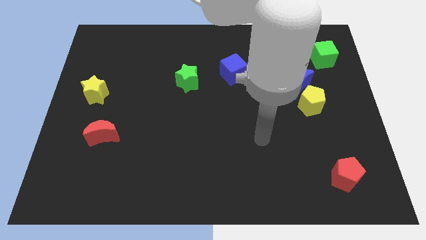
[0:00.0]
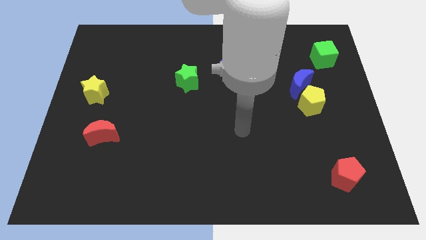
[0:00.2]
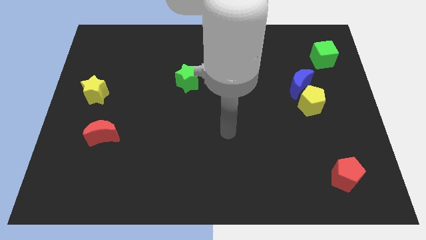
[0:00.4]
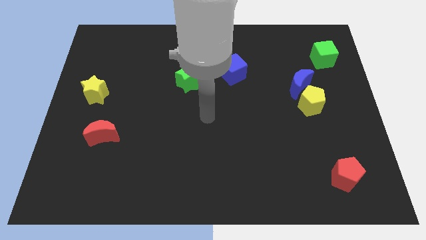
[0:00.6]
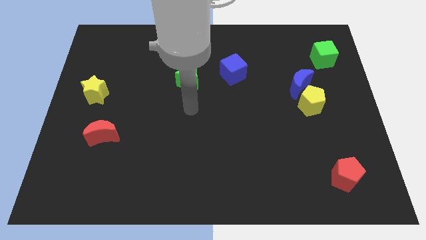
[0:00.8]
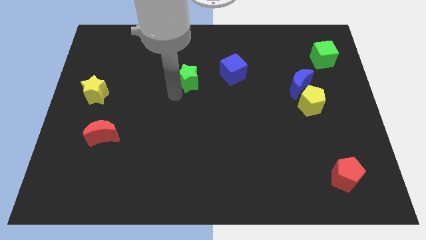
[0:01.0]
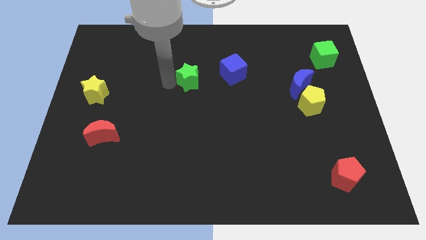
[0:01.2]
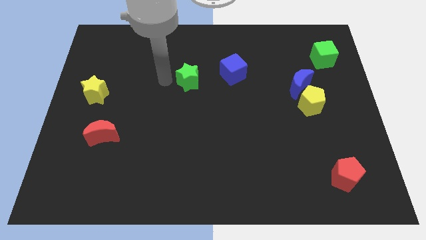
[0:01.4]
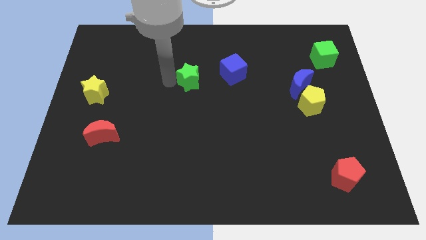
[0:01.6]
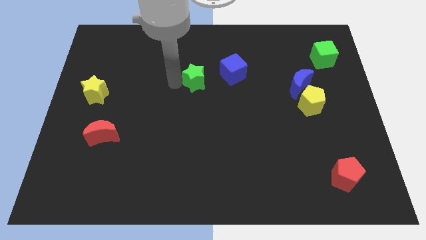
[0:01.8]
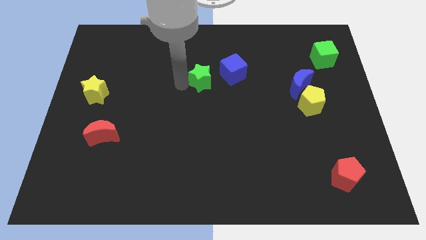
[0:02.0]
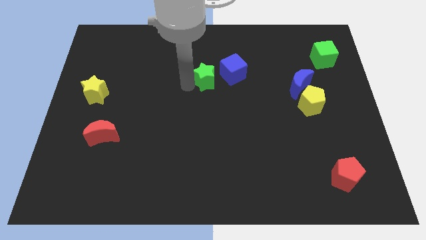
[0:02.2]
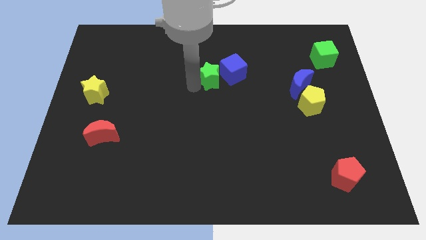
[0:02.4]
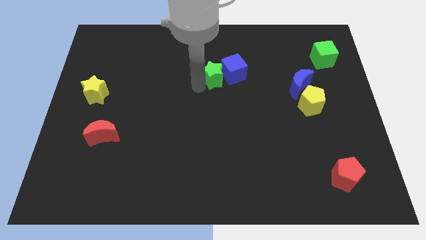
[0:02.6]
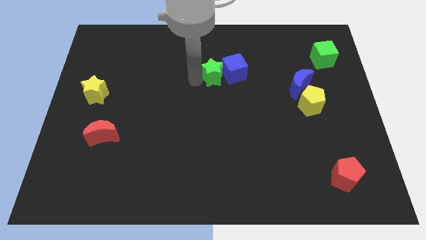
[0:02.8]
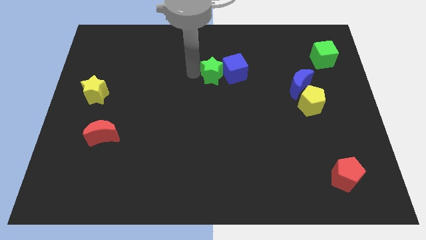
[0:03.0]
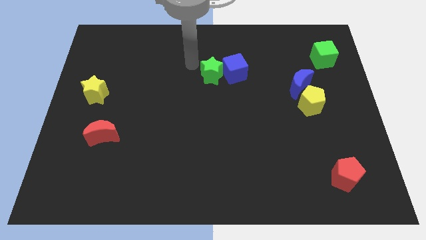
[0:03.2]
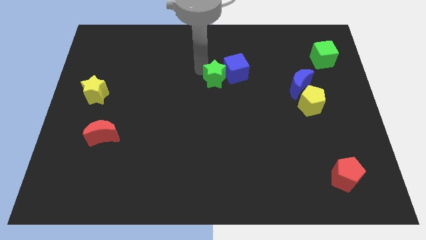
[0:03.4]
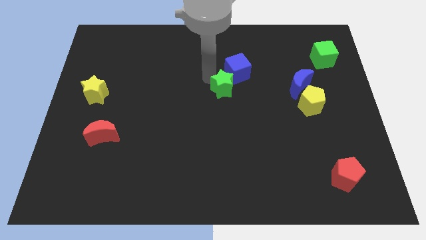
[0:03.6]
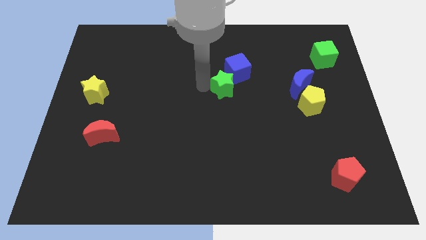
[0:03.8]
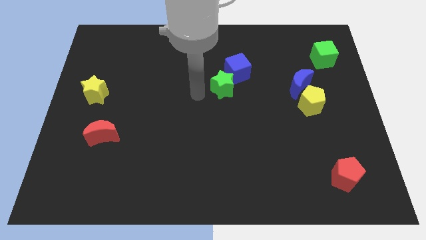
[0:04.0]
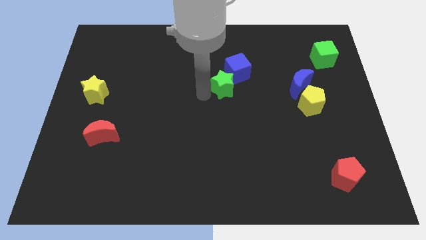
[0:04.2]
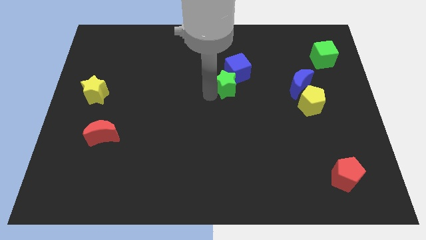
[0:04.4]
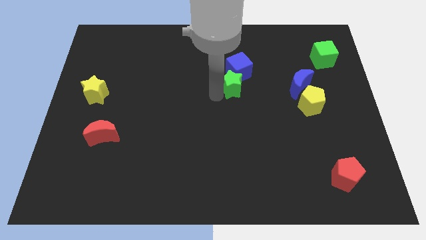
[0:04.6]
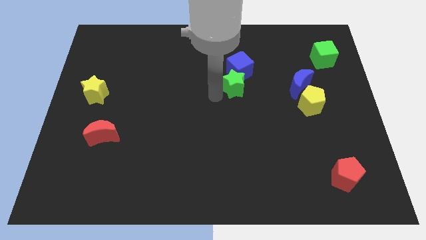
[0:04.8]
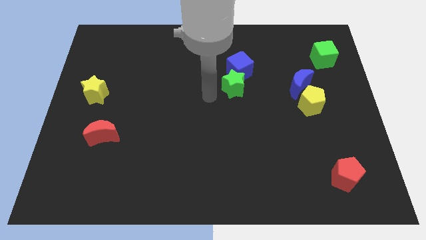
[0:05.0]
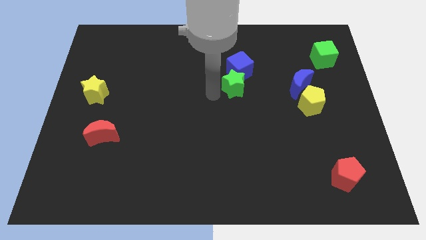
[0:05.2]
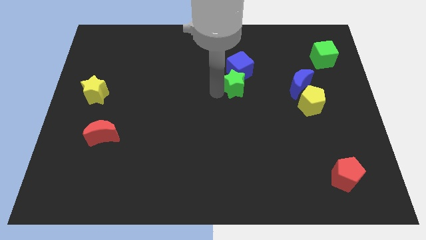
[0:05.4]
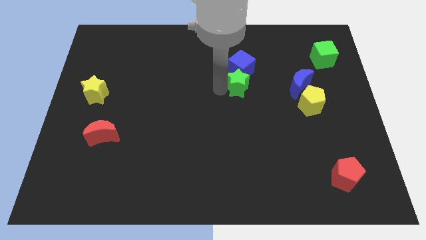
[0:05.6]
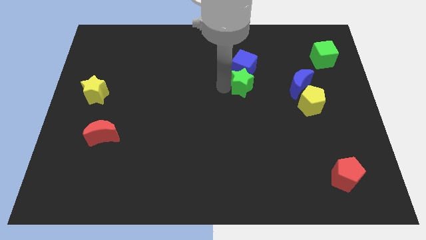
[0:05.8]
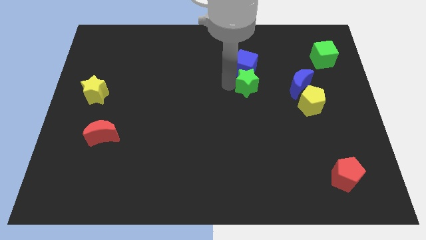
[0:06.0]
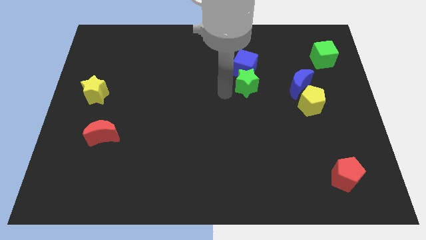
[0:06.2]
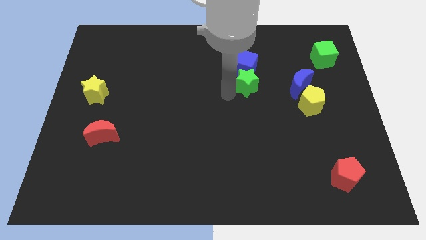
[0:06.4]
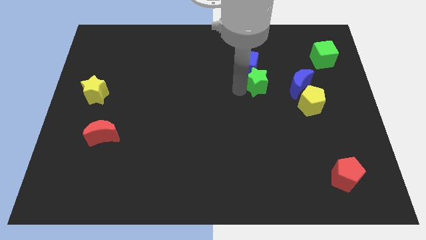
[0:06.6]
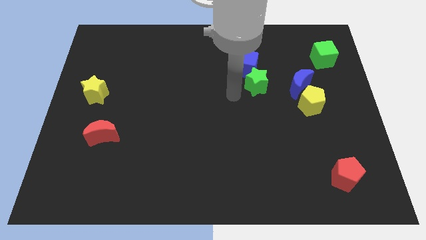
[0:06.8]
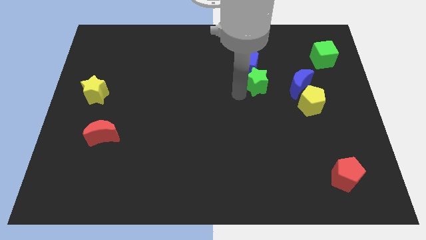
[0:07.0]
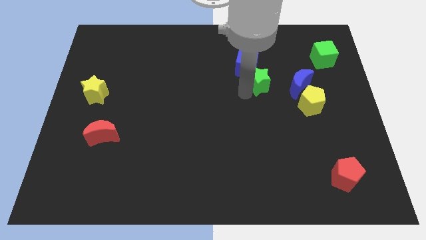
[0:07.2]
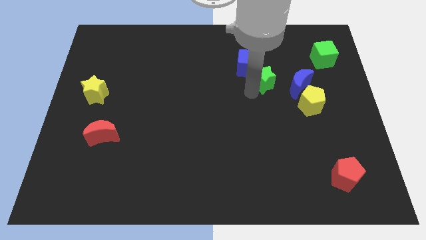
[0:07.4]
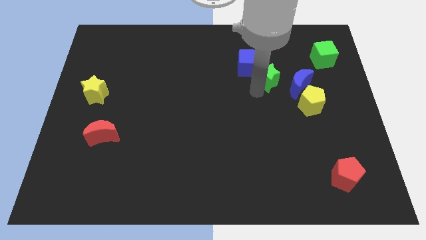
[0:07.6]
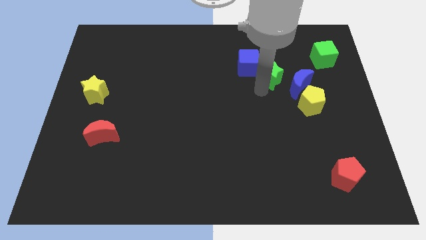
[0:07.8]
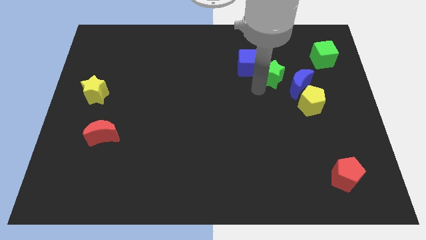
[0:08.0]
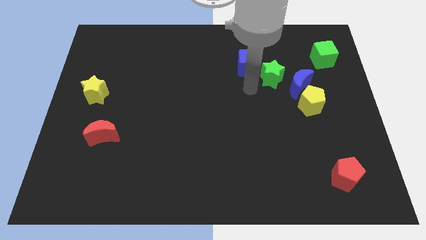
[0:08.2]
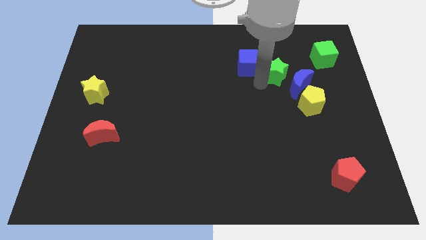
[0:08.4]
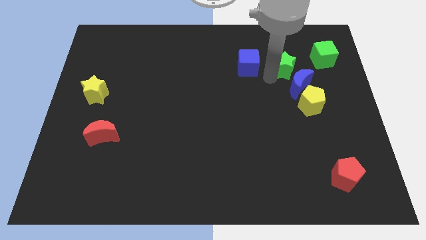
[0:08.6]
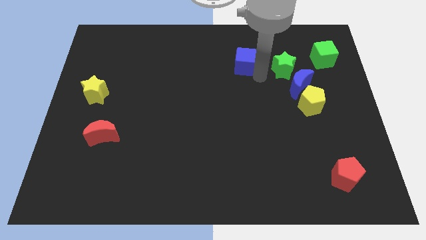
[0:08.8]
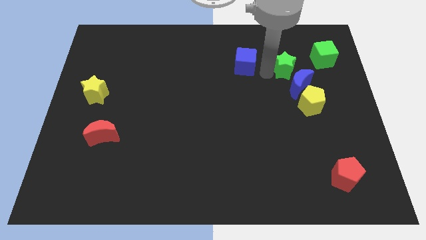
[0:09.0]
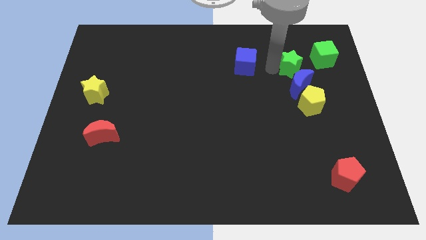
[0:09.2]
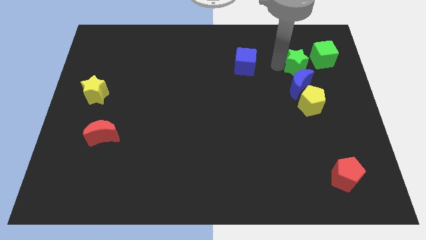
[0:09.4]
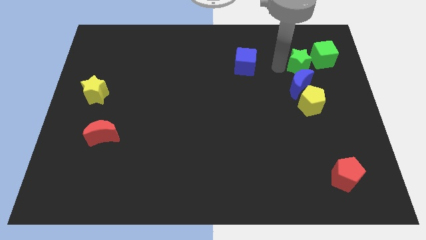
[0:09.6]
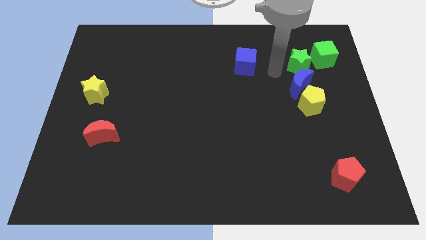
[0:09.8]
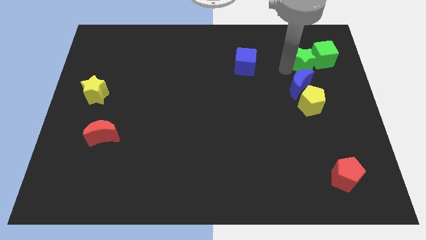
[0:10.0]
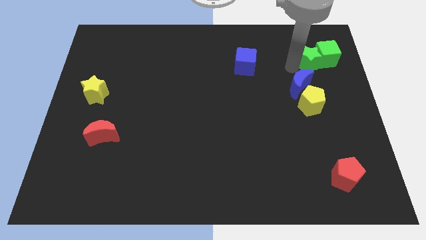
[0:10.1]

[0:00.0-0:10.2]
push the green star close to the green cube

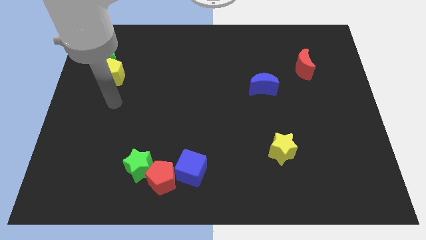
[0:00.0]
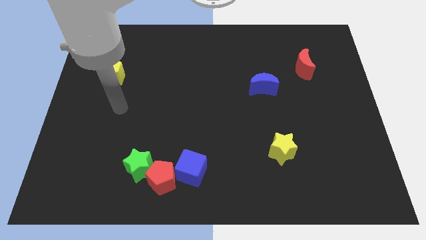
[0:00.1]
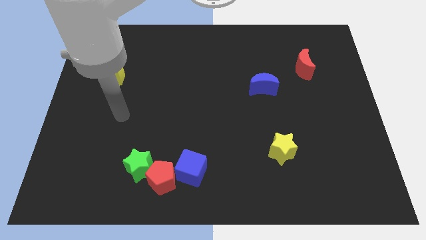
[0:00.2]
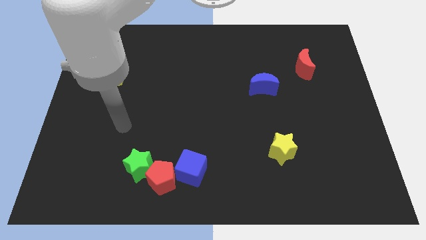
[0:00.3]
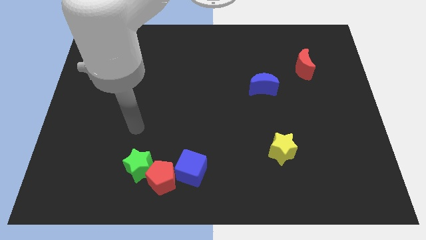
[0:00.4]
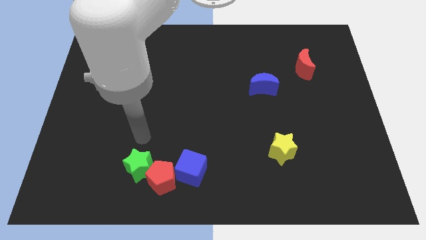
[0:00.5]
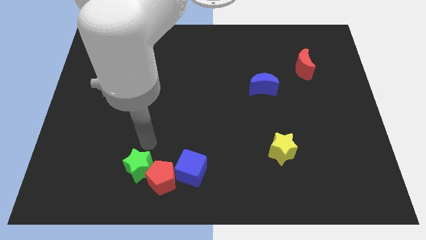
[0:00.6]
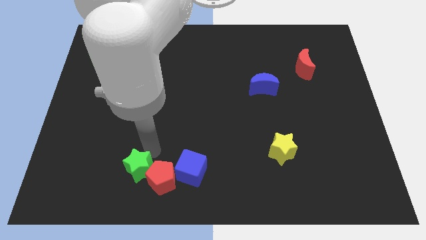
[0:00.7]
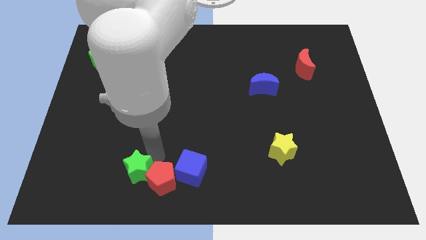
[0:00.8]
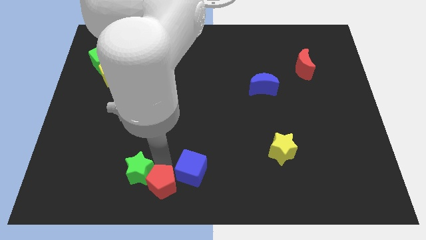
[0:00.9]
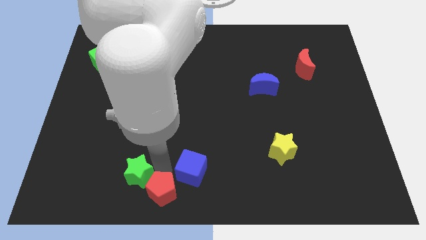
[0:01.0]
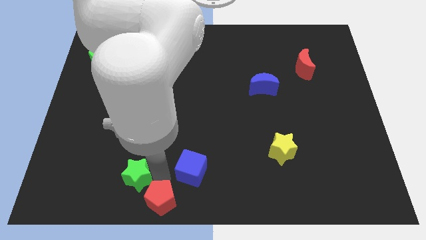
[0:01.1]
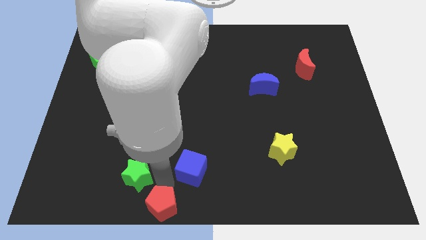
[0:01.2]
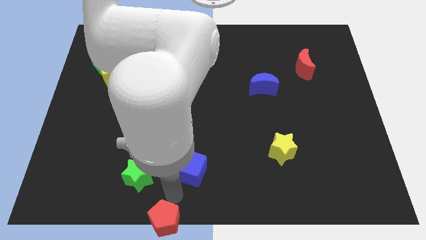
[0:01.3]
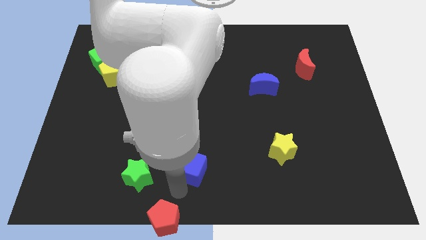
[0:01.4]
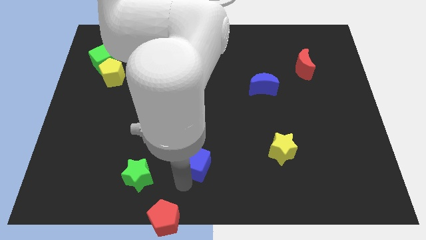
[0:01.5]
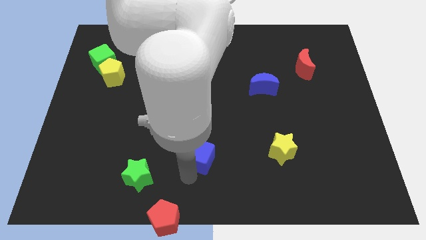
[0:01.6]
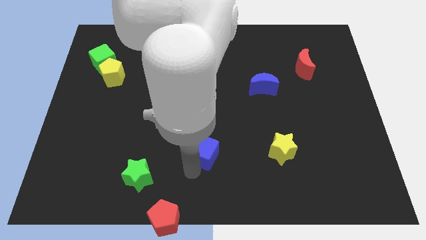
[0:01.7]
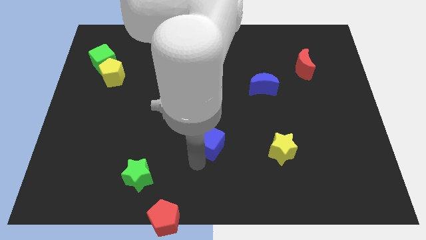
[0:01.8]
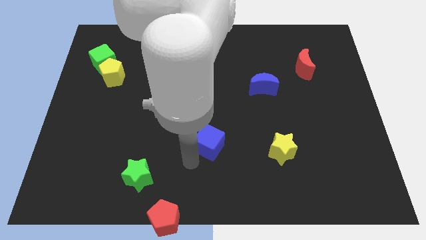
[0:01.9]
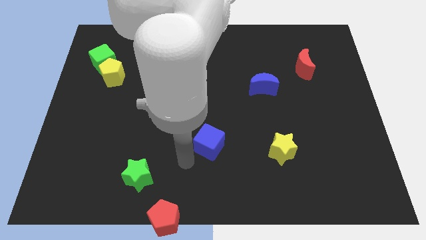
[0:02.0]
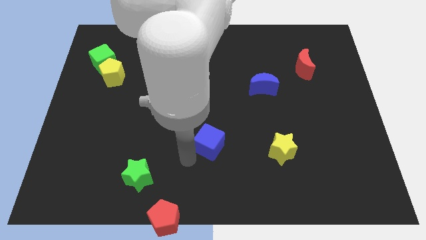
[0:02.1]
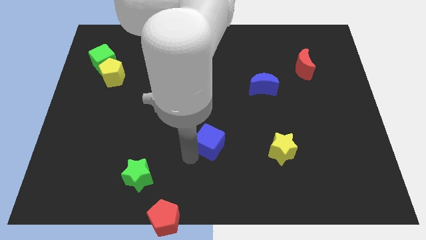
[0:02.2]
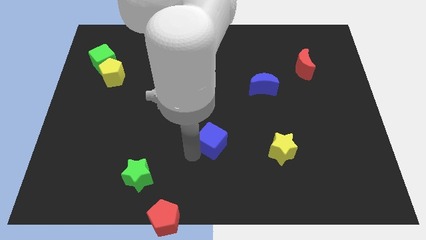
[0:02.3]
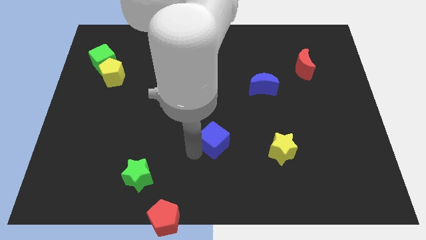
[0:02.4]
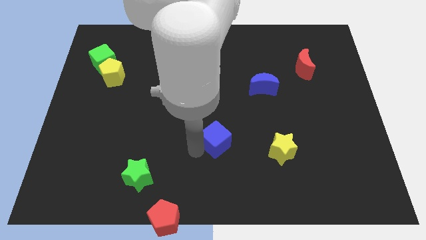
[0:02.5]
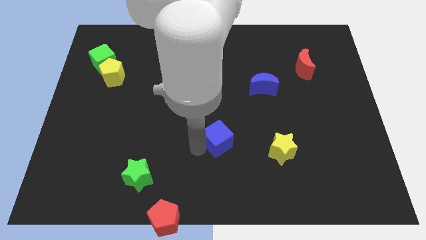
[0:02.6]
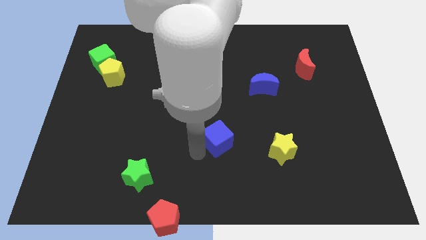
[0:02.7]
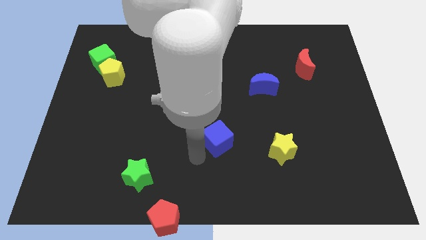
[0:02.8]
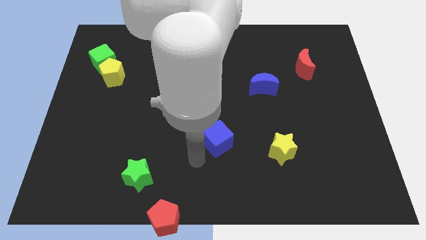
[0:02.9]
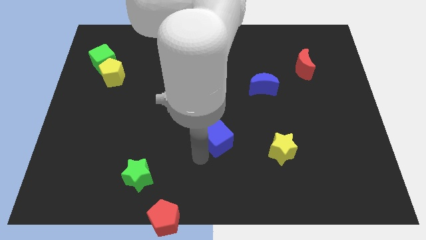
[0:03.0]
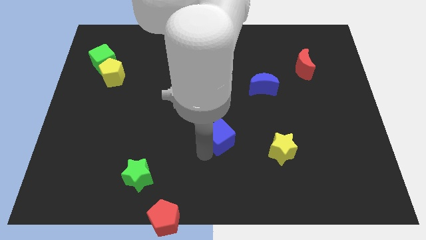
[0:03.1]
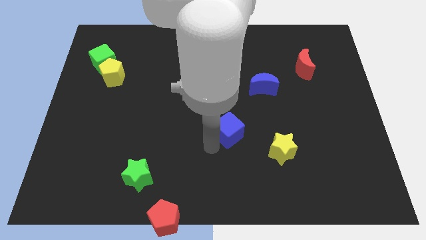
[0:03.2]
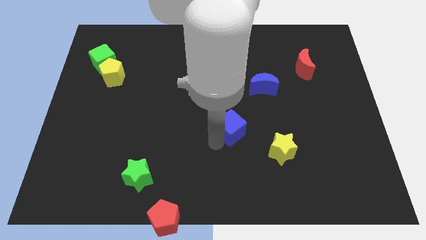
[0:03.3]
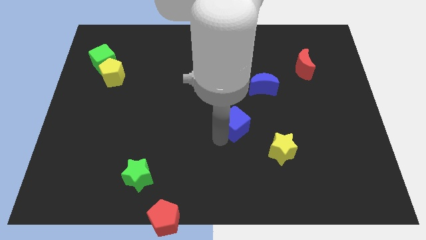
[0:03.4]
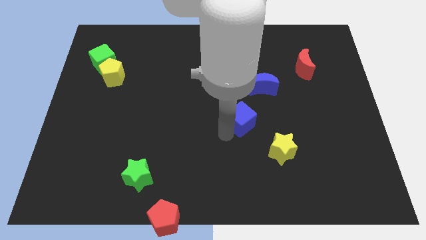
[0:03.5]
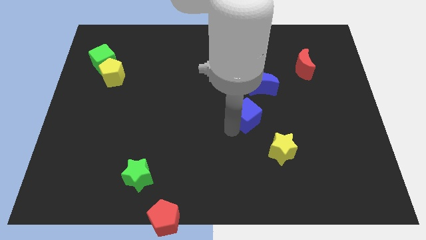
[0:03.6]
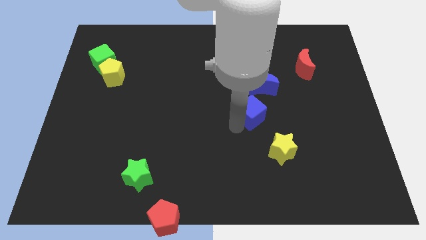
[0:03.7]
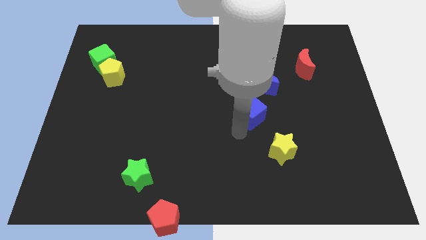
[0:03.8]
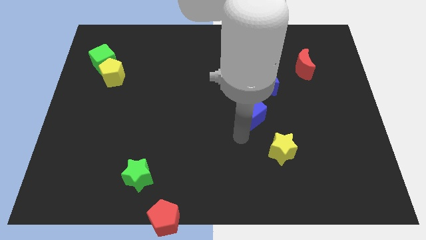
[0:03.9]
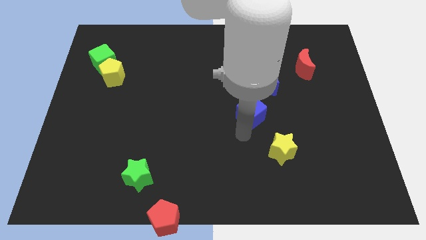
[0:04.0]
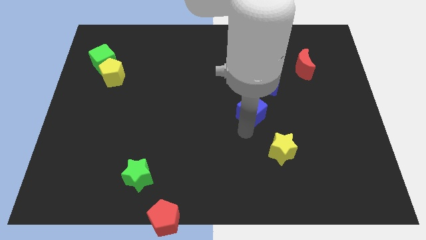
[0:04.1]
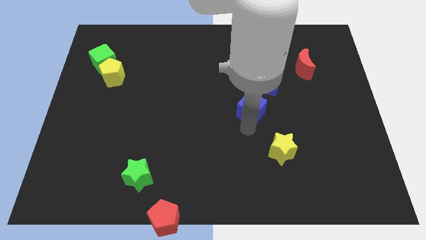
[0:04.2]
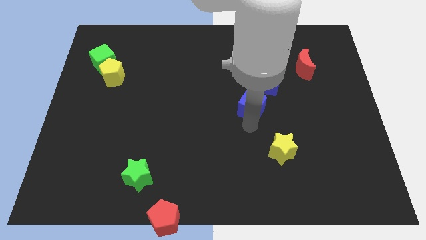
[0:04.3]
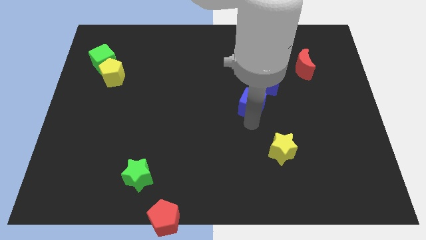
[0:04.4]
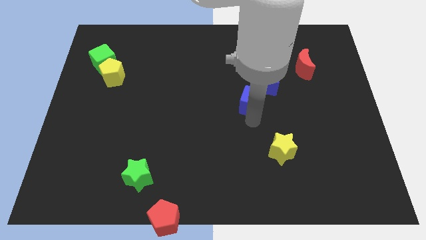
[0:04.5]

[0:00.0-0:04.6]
put the blue cube next to the blue moon
